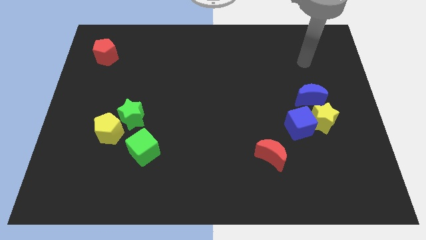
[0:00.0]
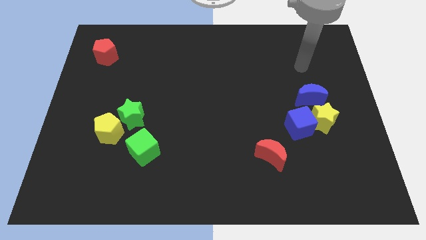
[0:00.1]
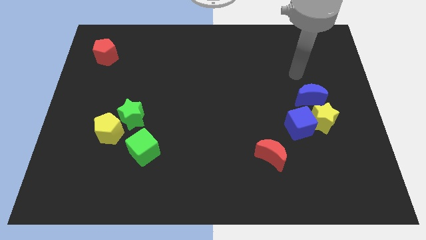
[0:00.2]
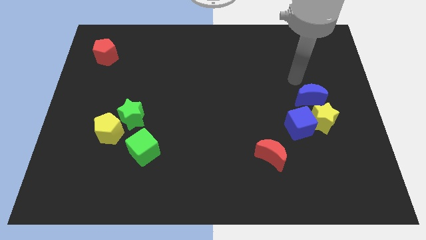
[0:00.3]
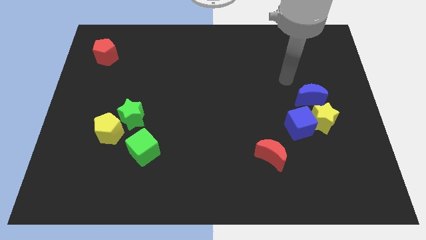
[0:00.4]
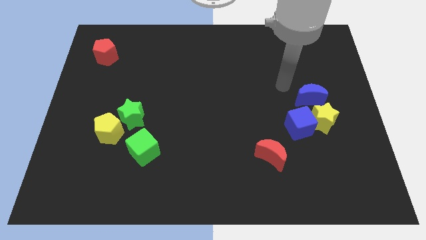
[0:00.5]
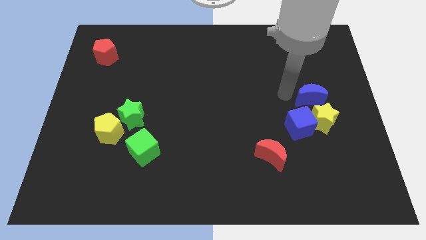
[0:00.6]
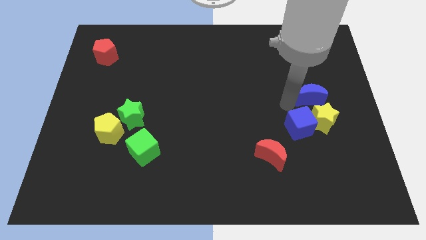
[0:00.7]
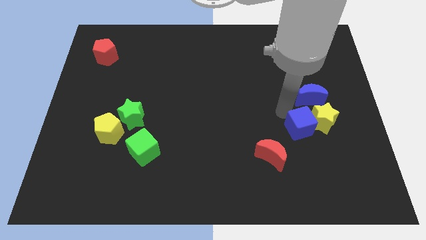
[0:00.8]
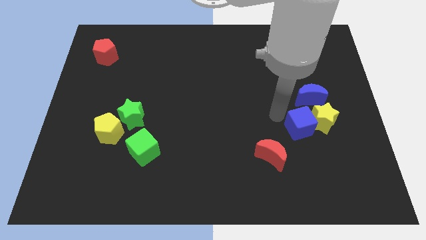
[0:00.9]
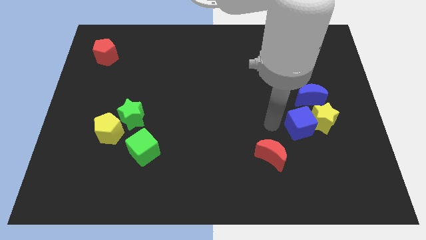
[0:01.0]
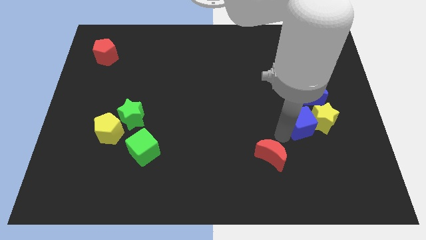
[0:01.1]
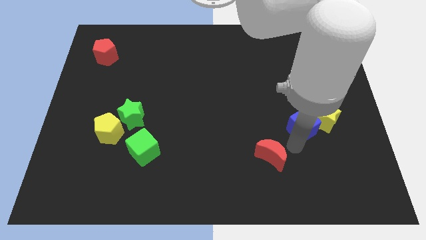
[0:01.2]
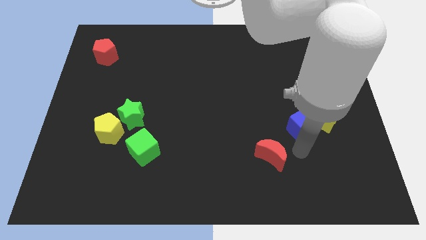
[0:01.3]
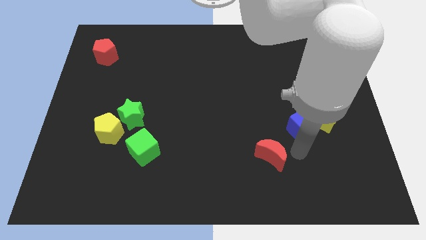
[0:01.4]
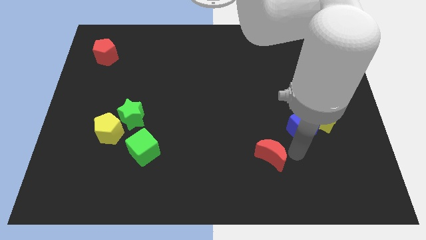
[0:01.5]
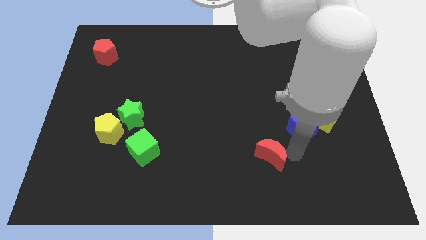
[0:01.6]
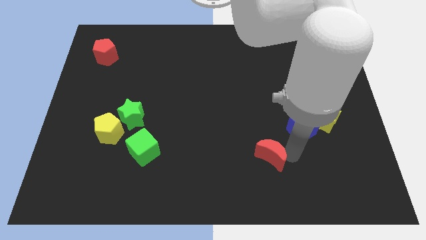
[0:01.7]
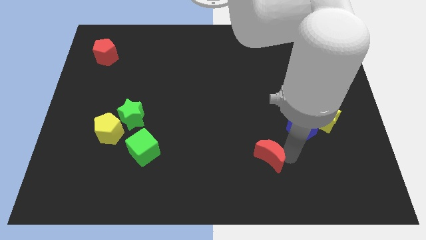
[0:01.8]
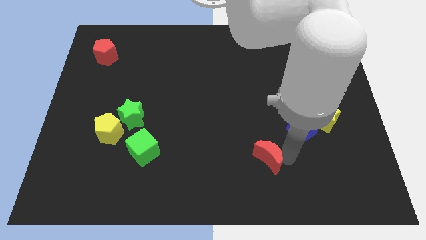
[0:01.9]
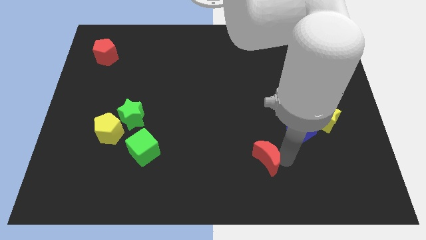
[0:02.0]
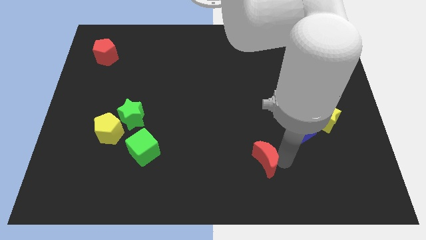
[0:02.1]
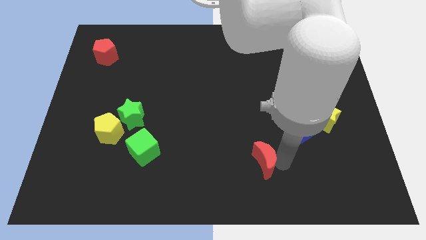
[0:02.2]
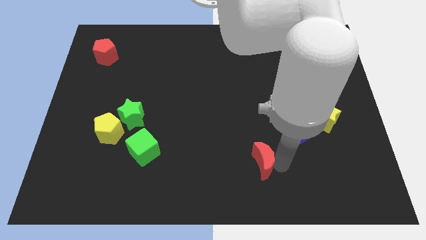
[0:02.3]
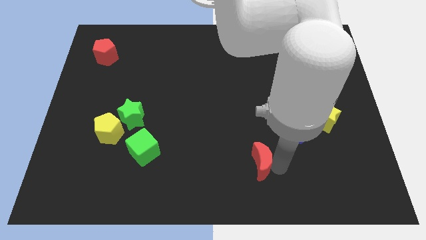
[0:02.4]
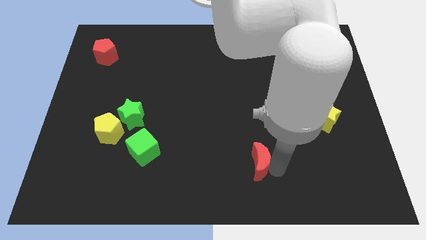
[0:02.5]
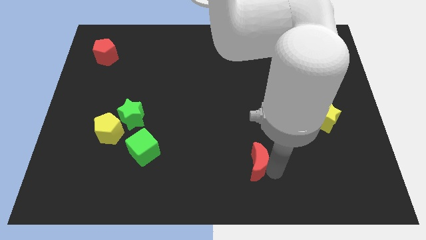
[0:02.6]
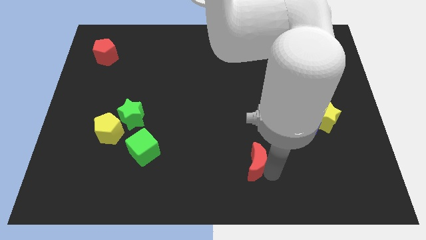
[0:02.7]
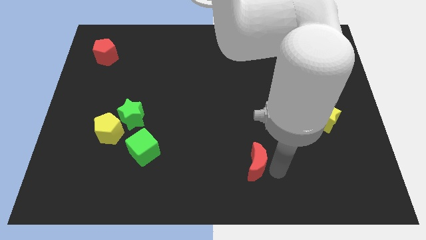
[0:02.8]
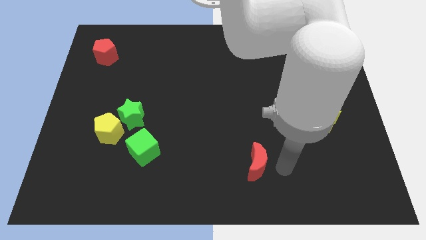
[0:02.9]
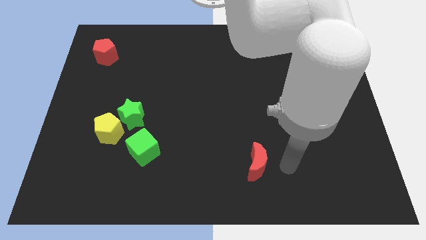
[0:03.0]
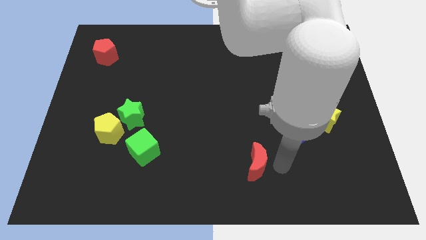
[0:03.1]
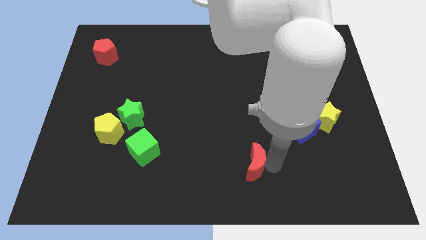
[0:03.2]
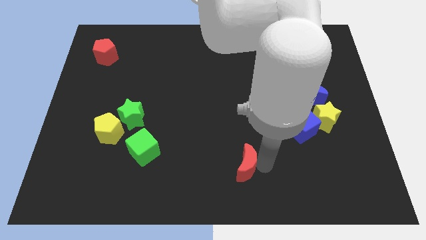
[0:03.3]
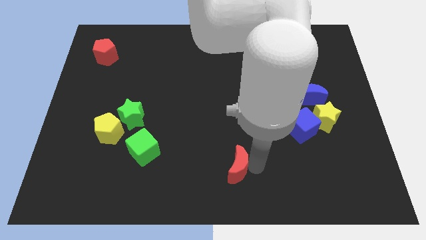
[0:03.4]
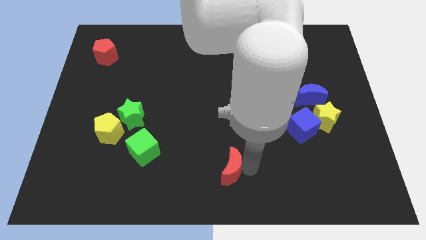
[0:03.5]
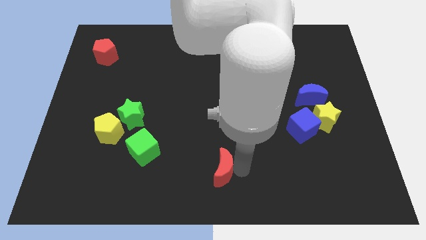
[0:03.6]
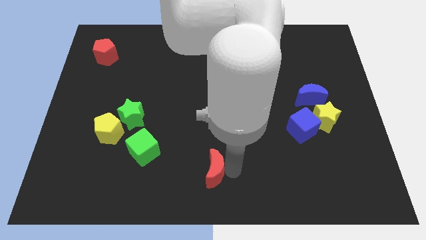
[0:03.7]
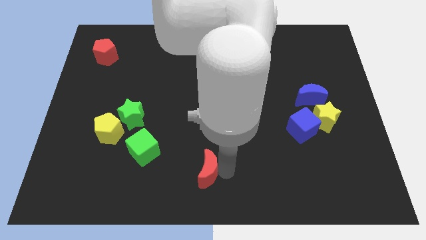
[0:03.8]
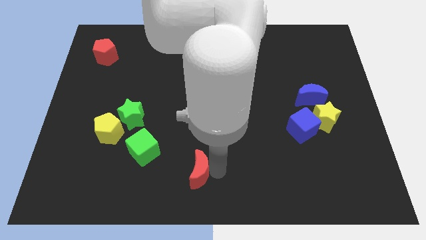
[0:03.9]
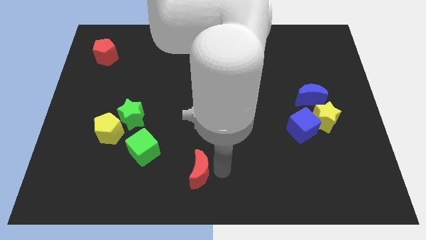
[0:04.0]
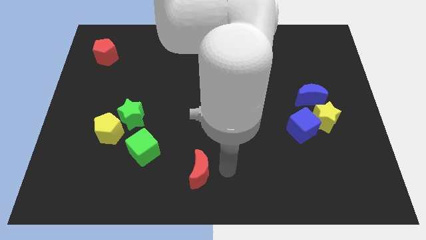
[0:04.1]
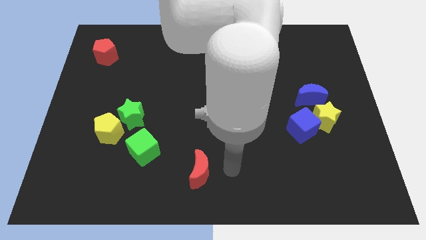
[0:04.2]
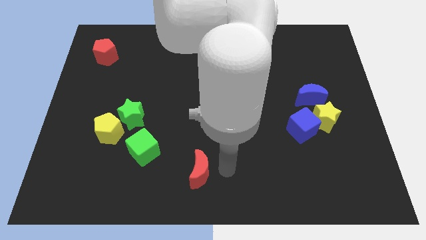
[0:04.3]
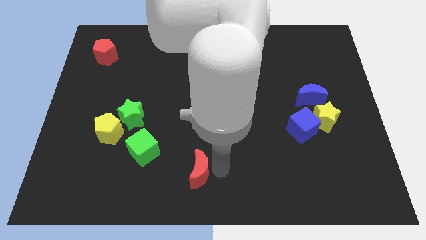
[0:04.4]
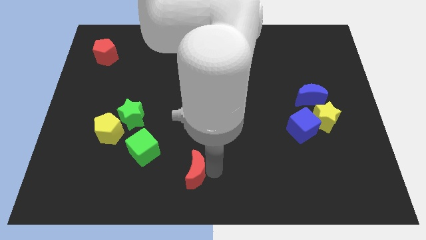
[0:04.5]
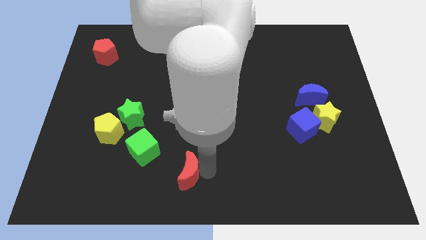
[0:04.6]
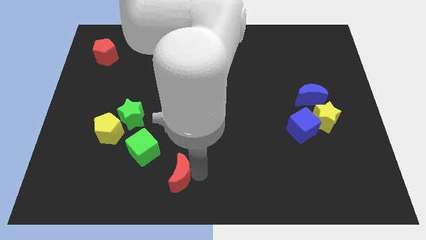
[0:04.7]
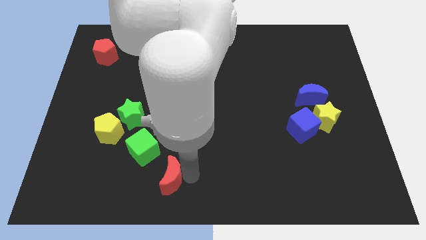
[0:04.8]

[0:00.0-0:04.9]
push the red moon left

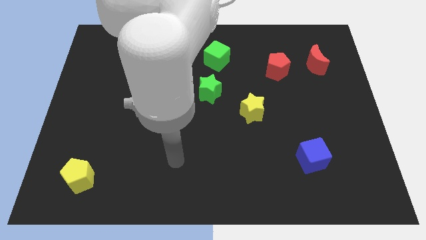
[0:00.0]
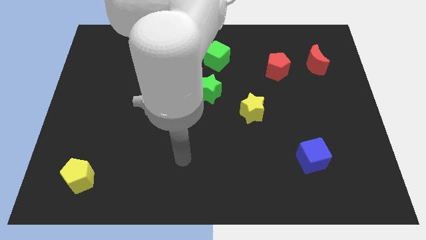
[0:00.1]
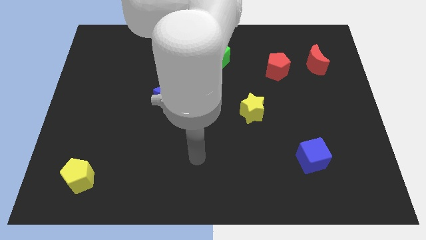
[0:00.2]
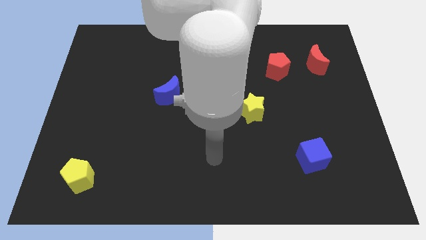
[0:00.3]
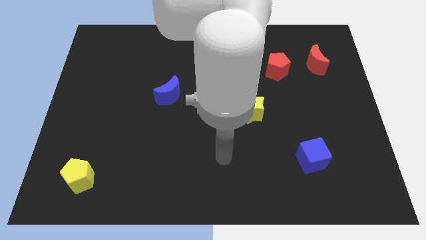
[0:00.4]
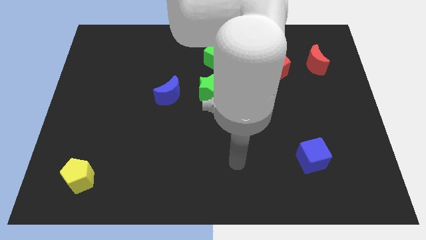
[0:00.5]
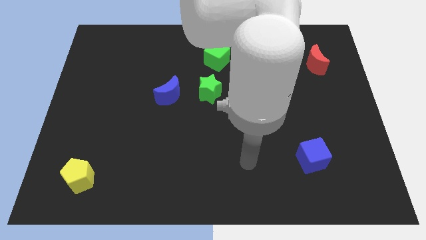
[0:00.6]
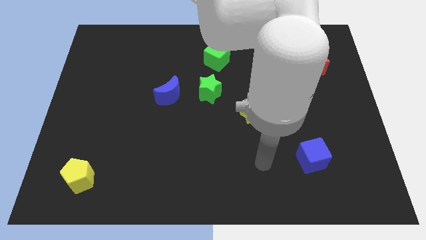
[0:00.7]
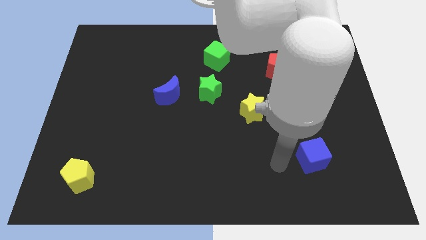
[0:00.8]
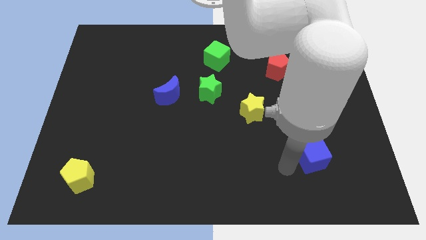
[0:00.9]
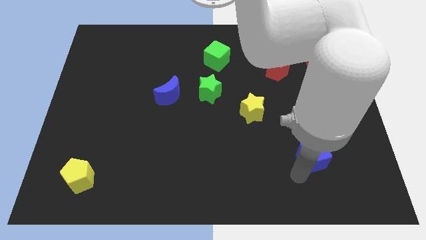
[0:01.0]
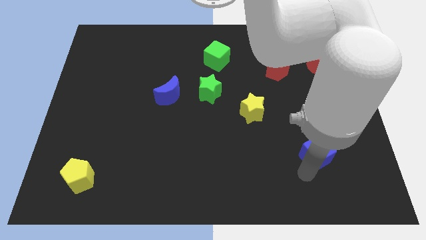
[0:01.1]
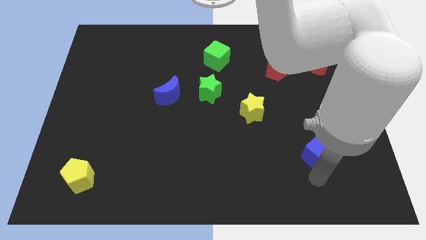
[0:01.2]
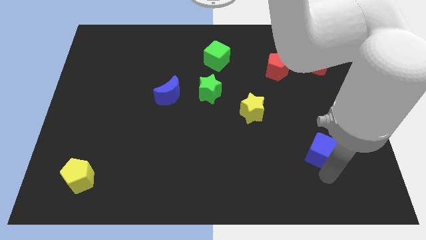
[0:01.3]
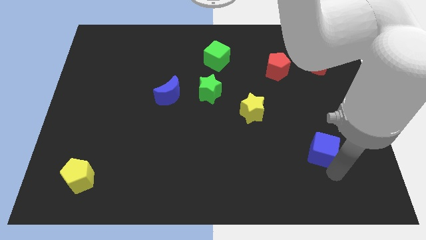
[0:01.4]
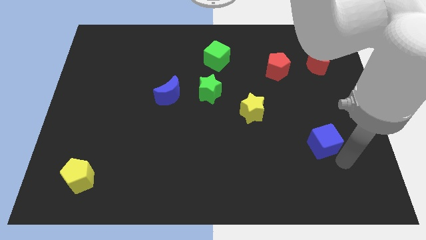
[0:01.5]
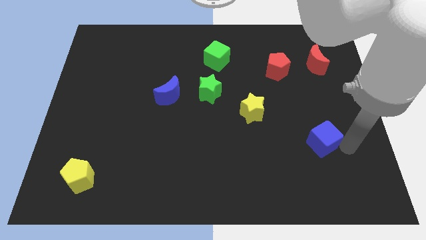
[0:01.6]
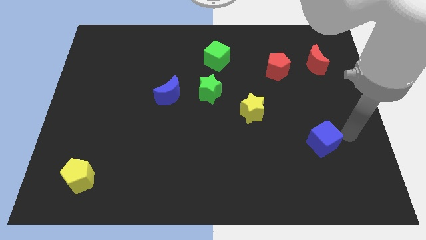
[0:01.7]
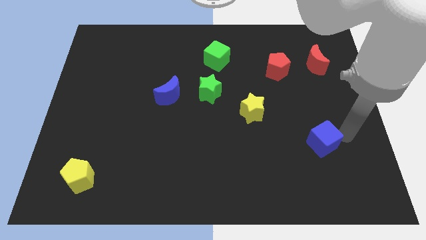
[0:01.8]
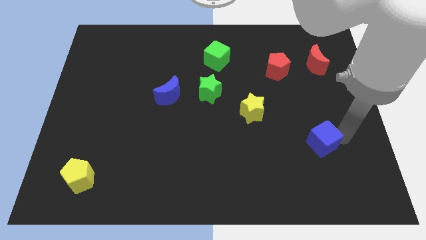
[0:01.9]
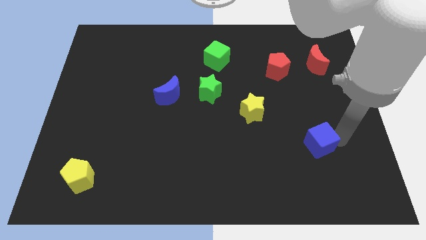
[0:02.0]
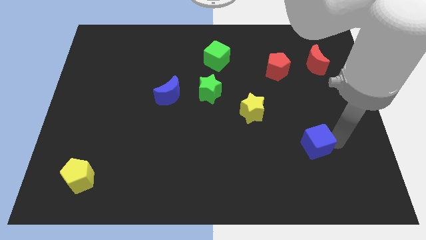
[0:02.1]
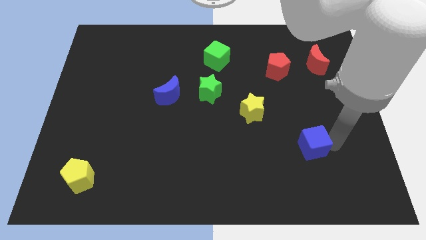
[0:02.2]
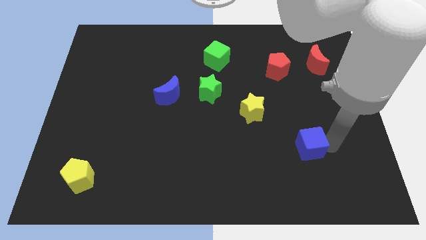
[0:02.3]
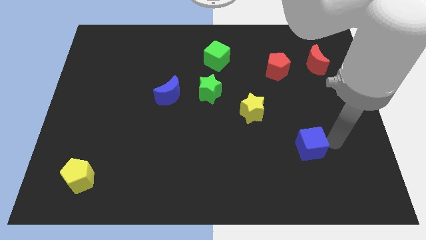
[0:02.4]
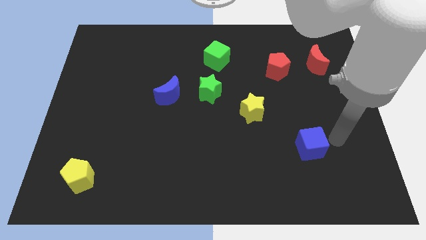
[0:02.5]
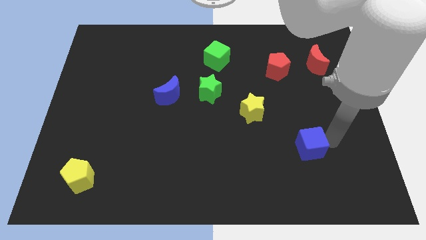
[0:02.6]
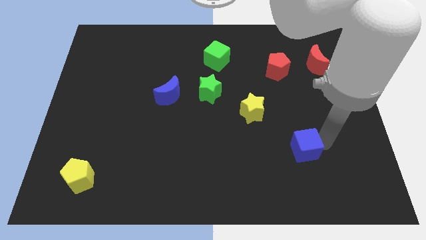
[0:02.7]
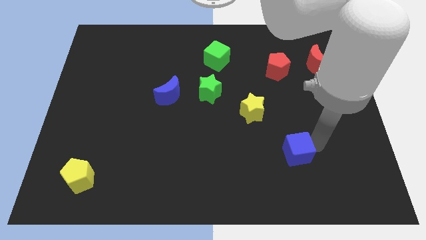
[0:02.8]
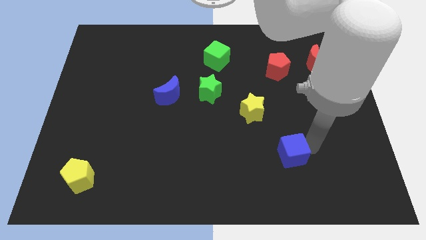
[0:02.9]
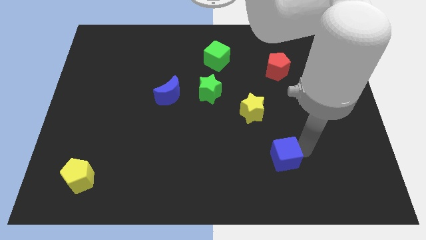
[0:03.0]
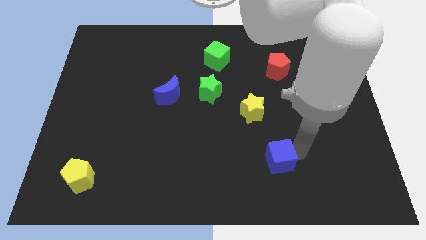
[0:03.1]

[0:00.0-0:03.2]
push the blue cube left slightly
